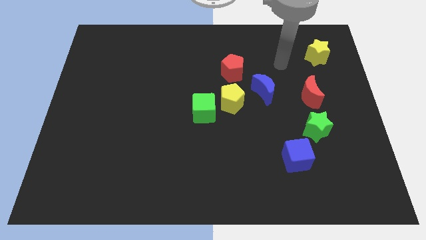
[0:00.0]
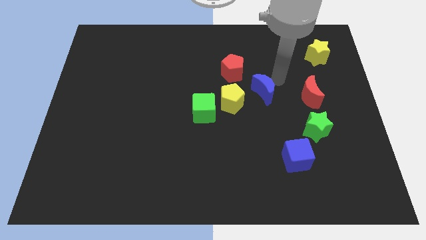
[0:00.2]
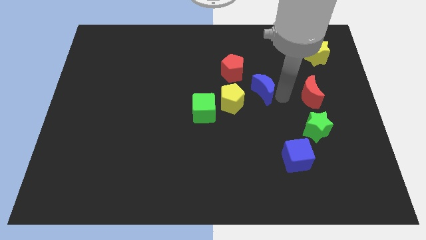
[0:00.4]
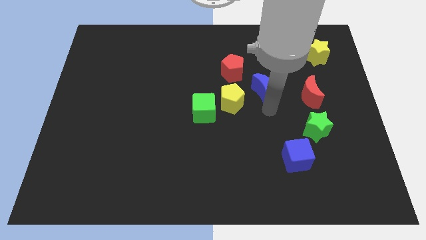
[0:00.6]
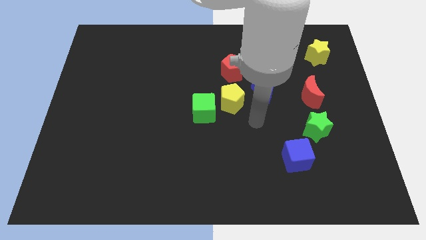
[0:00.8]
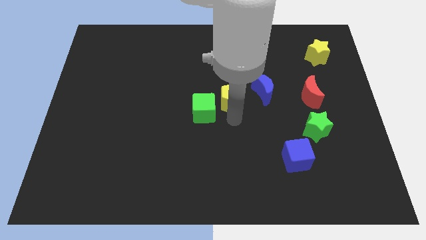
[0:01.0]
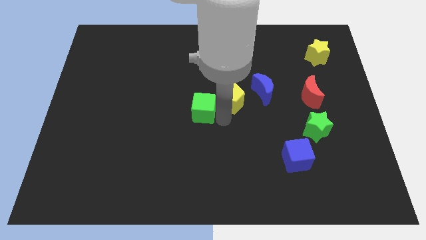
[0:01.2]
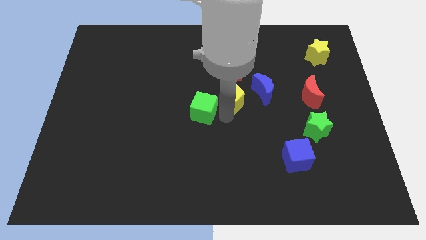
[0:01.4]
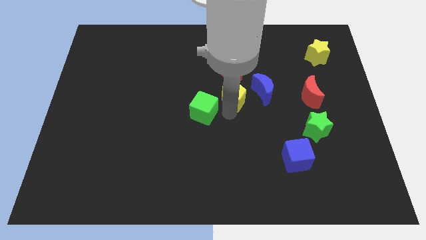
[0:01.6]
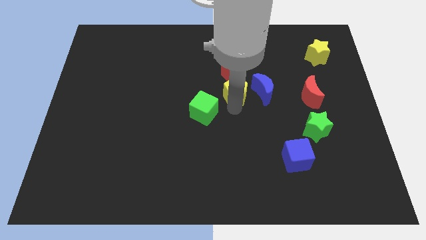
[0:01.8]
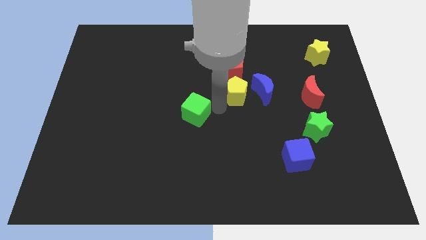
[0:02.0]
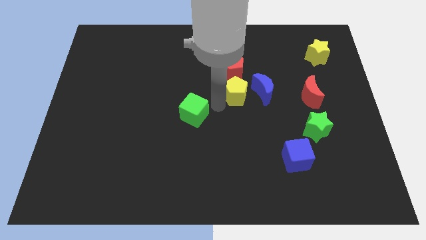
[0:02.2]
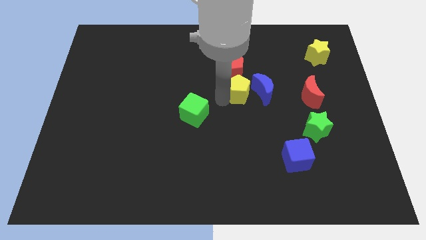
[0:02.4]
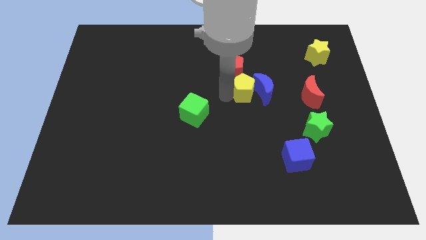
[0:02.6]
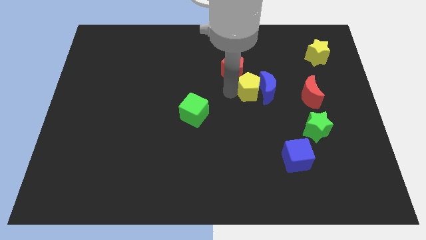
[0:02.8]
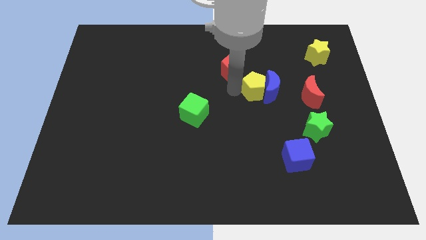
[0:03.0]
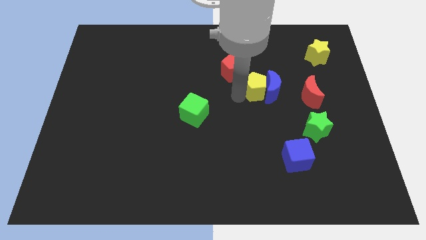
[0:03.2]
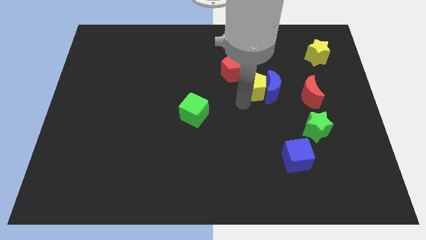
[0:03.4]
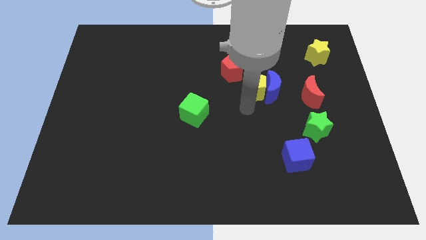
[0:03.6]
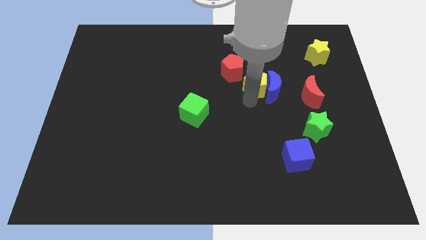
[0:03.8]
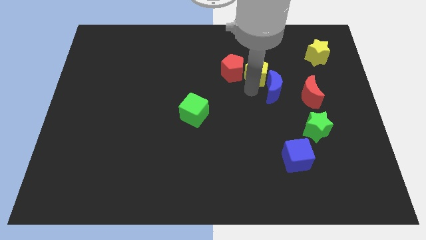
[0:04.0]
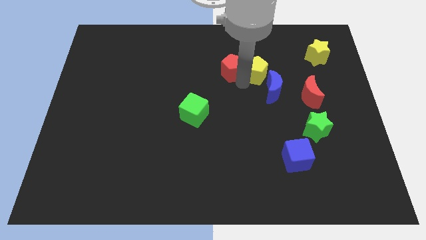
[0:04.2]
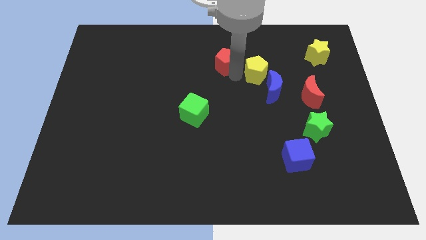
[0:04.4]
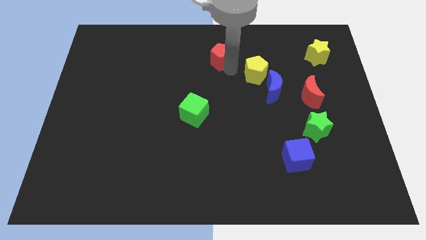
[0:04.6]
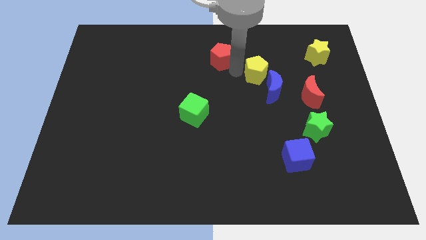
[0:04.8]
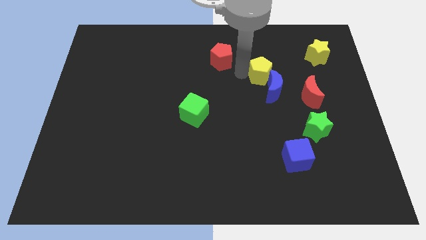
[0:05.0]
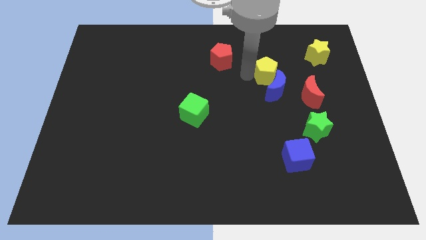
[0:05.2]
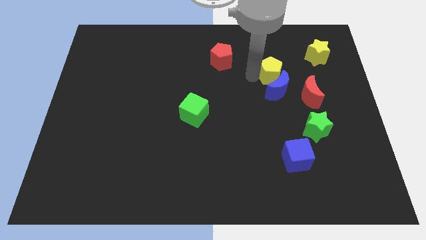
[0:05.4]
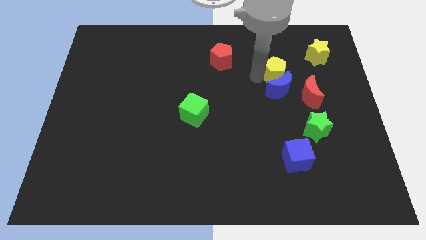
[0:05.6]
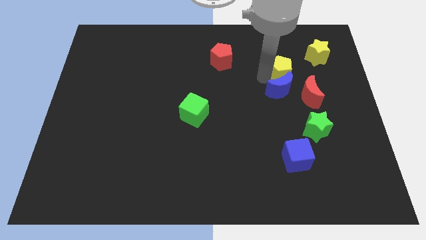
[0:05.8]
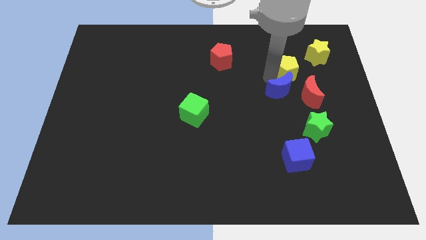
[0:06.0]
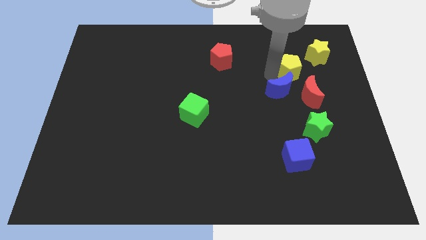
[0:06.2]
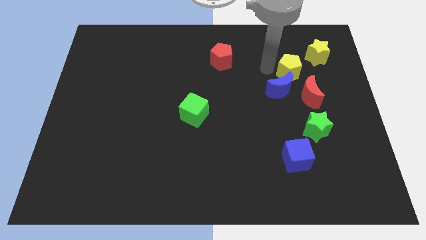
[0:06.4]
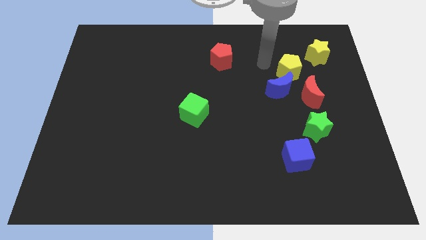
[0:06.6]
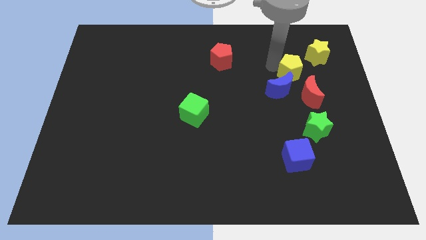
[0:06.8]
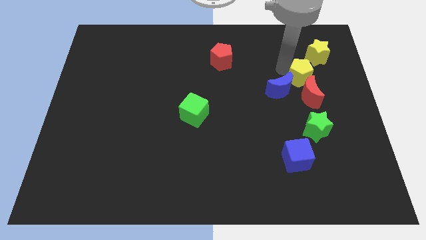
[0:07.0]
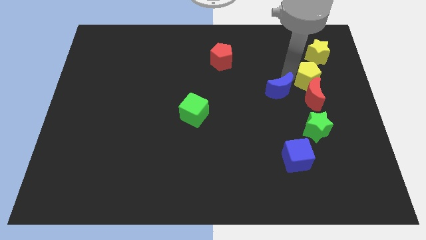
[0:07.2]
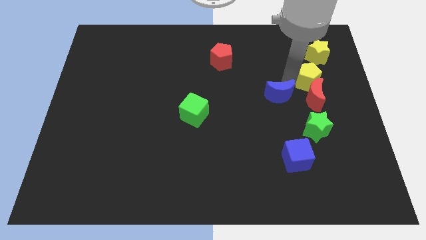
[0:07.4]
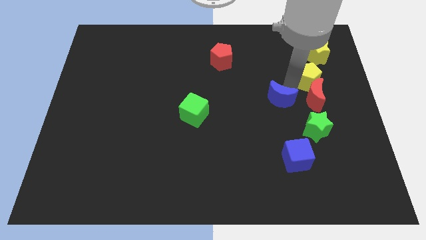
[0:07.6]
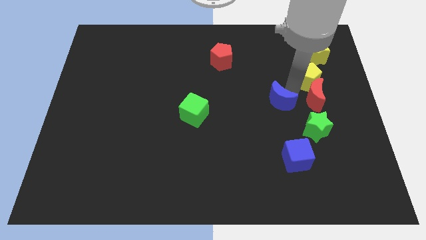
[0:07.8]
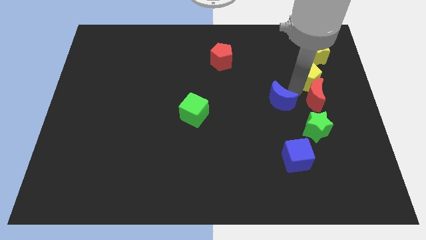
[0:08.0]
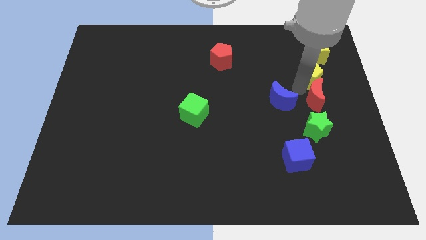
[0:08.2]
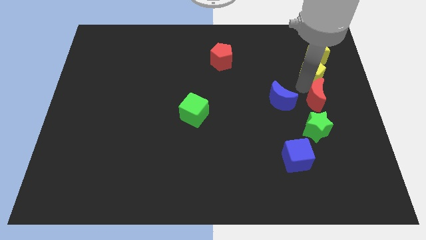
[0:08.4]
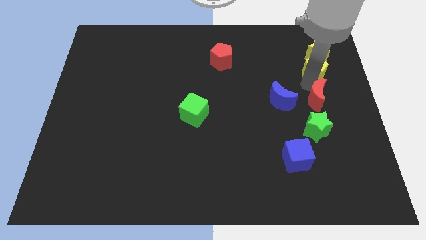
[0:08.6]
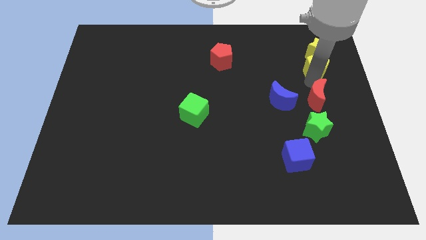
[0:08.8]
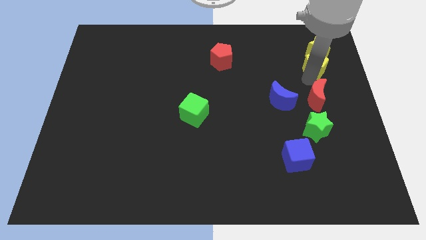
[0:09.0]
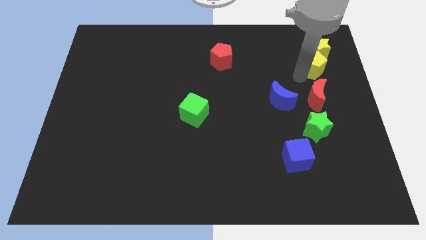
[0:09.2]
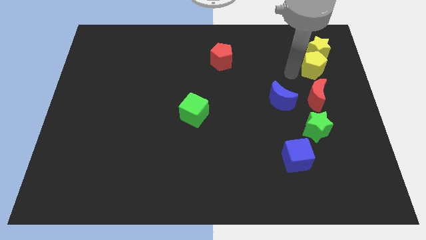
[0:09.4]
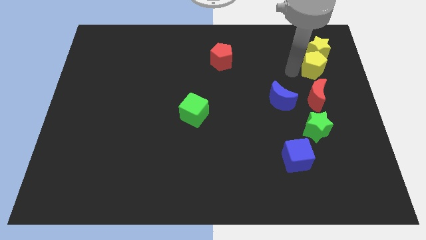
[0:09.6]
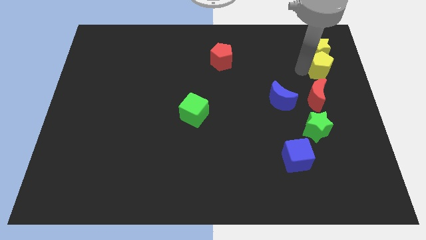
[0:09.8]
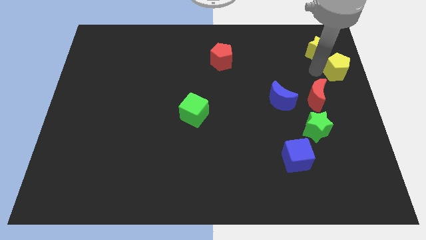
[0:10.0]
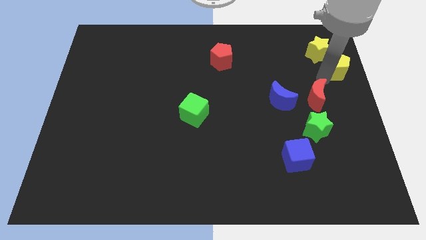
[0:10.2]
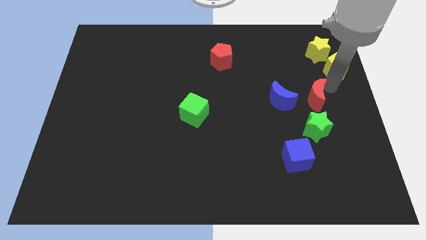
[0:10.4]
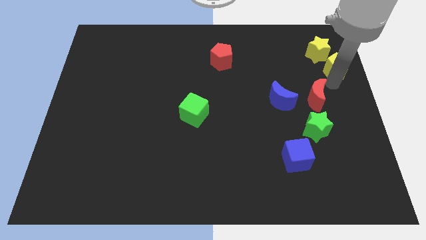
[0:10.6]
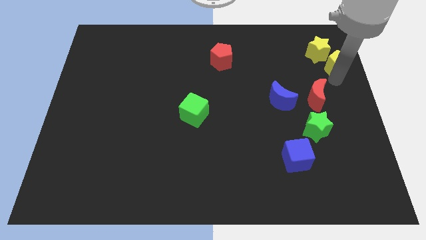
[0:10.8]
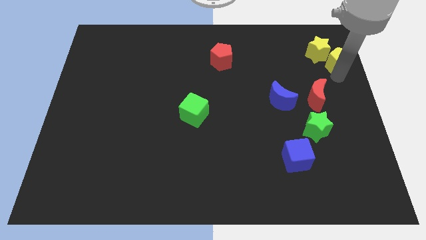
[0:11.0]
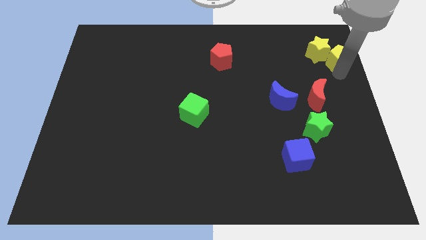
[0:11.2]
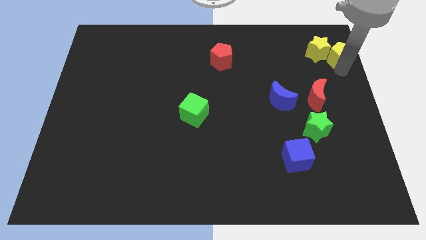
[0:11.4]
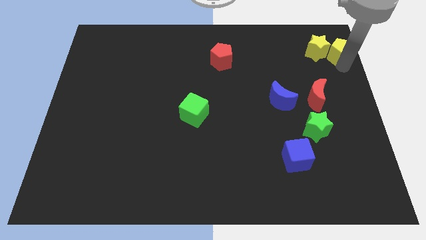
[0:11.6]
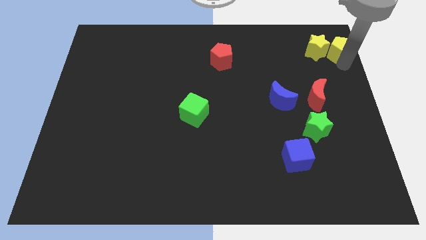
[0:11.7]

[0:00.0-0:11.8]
put the yellow pentagon to the top right corner

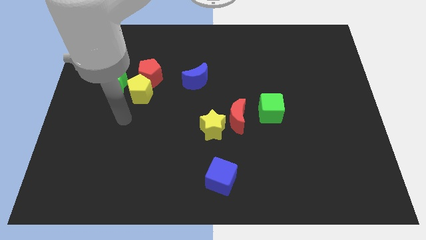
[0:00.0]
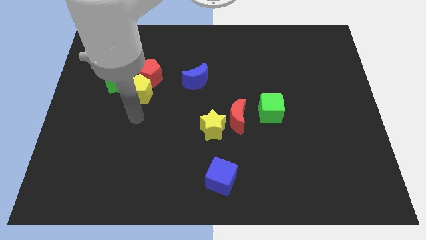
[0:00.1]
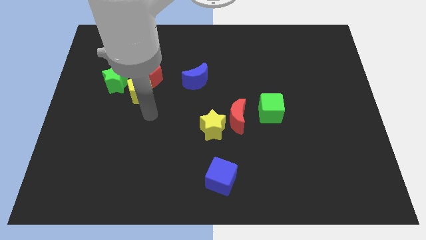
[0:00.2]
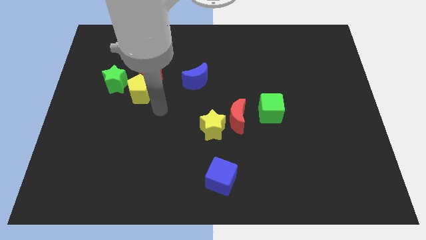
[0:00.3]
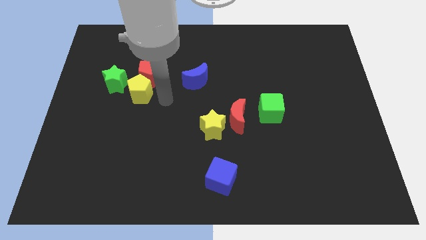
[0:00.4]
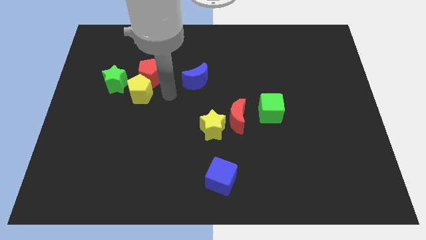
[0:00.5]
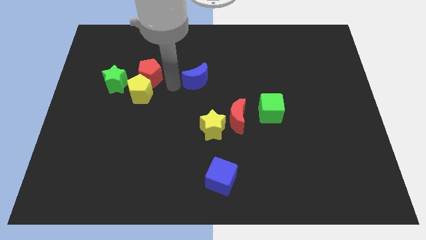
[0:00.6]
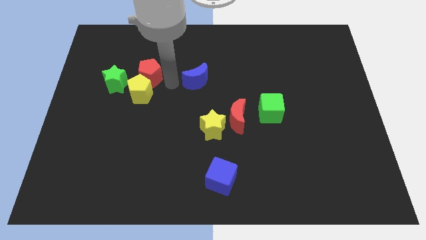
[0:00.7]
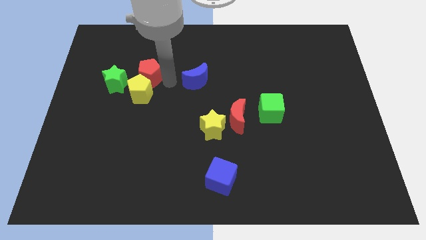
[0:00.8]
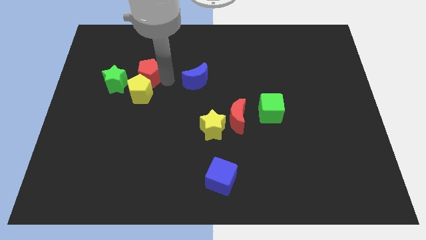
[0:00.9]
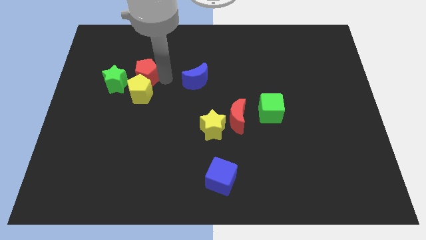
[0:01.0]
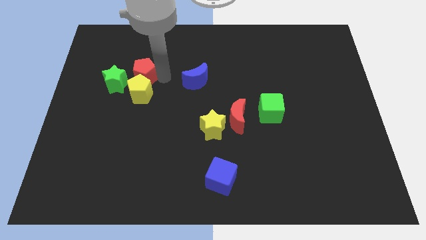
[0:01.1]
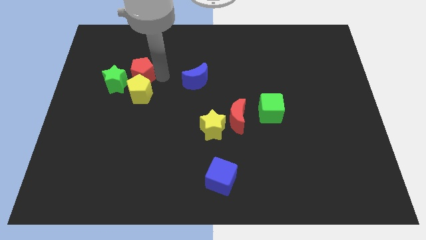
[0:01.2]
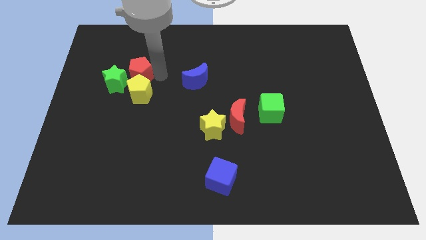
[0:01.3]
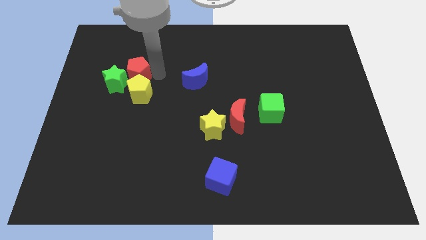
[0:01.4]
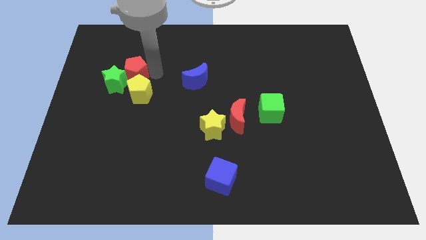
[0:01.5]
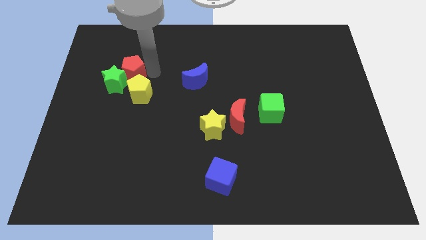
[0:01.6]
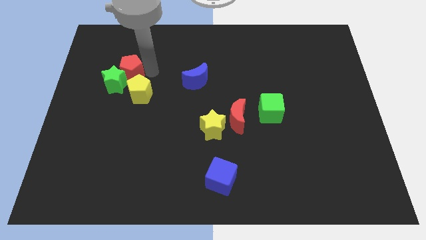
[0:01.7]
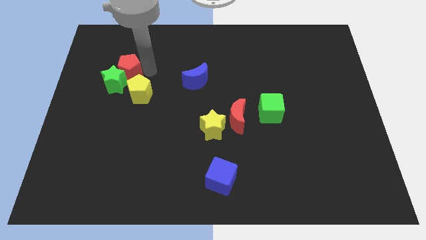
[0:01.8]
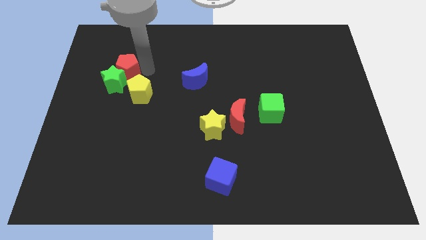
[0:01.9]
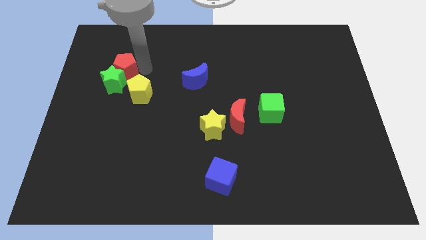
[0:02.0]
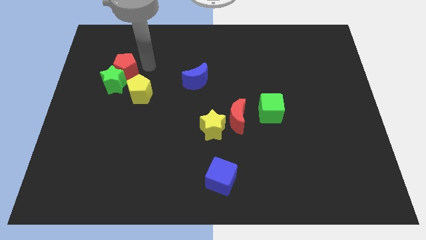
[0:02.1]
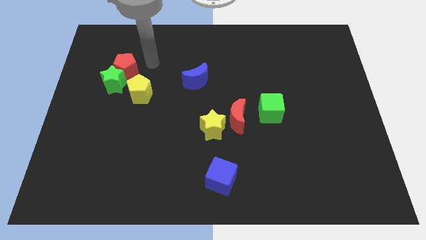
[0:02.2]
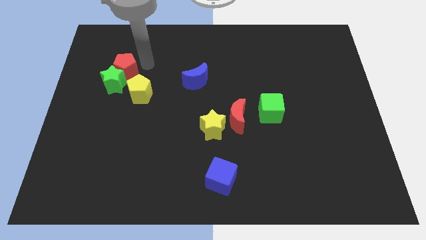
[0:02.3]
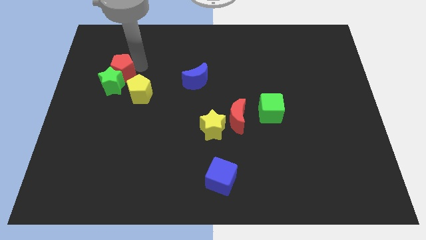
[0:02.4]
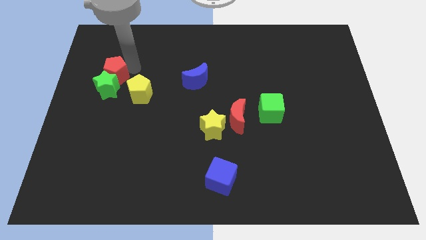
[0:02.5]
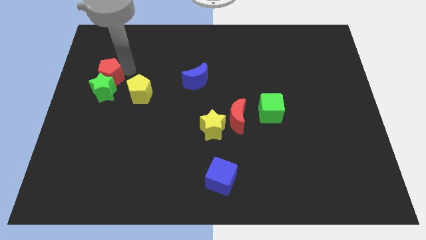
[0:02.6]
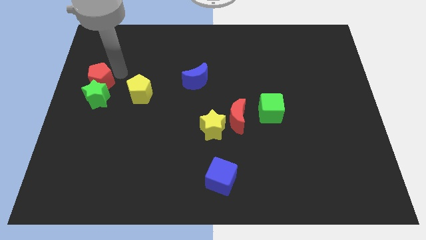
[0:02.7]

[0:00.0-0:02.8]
slide the red pentagon to the left side of the board
